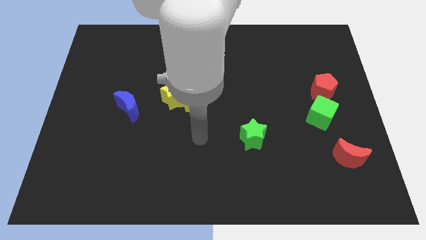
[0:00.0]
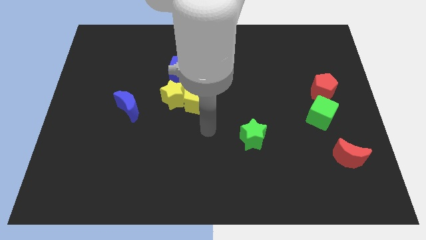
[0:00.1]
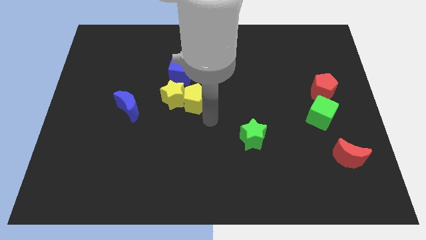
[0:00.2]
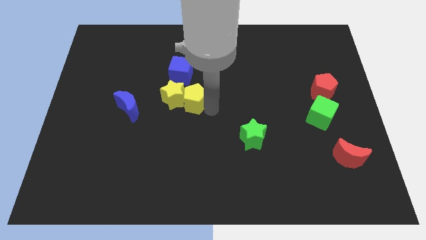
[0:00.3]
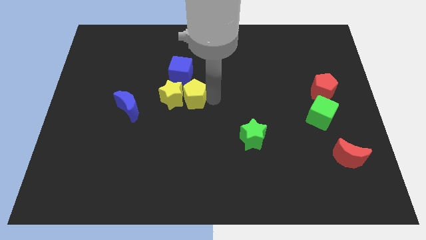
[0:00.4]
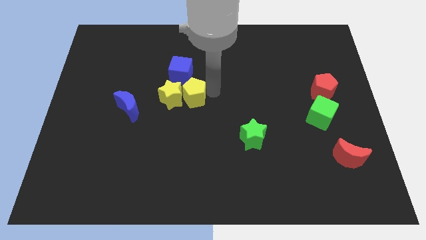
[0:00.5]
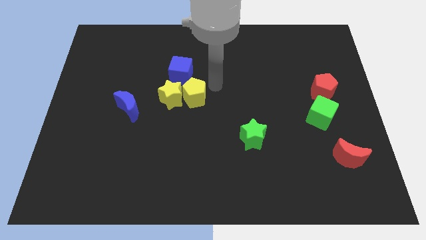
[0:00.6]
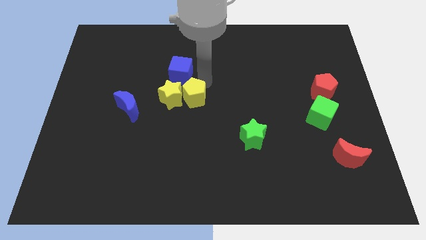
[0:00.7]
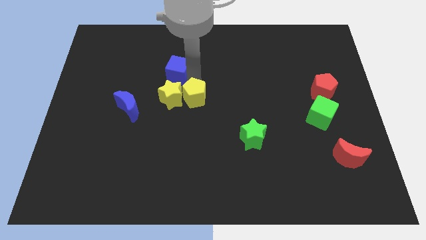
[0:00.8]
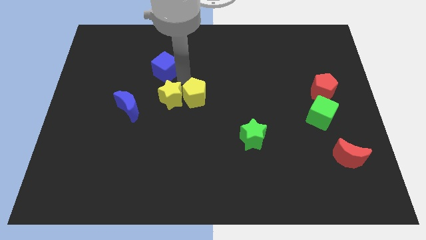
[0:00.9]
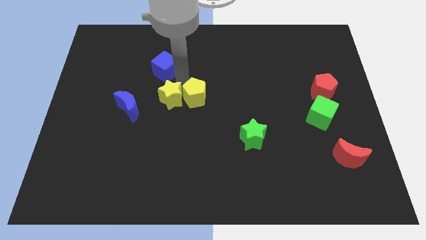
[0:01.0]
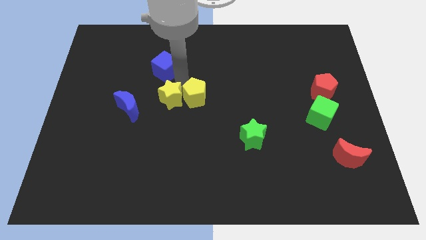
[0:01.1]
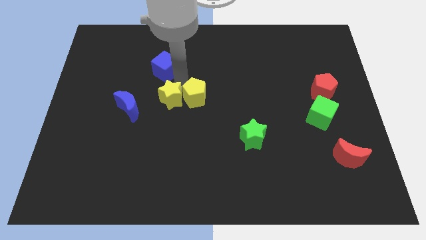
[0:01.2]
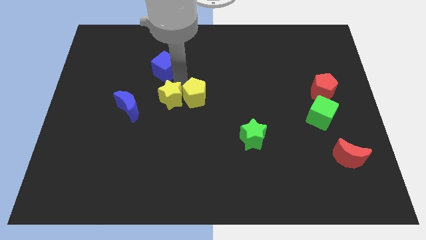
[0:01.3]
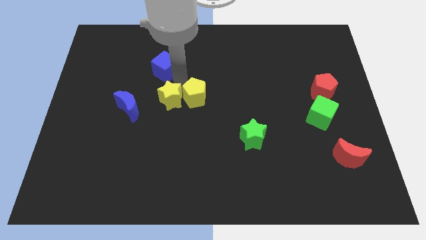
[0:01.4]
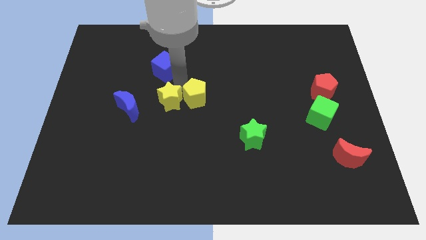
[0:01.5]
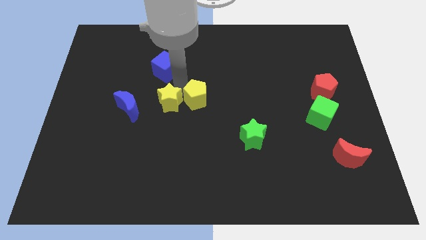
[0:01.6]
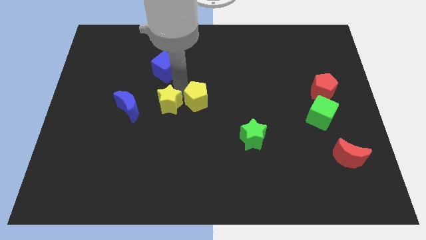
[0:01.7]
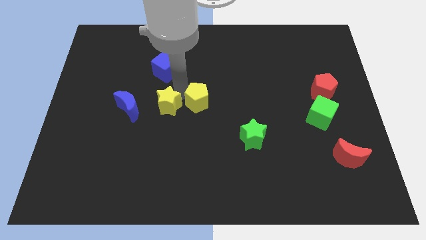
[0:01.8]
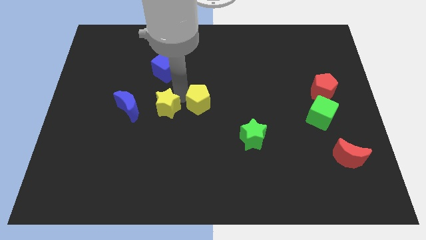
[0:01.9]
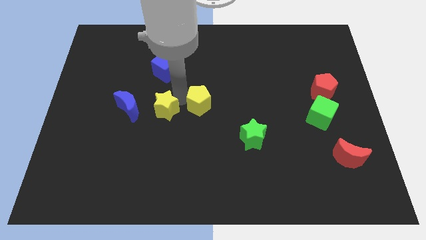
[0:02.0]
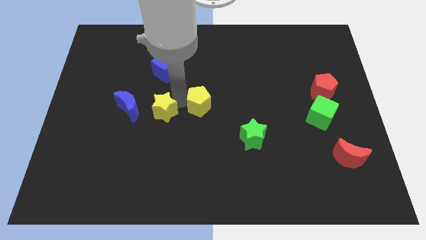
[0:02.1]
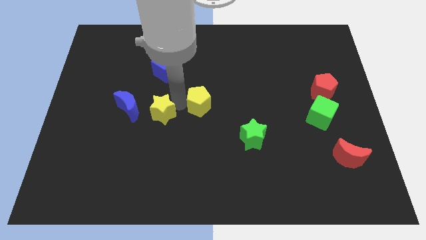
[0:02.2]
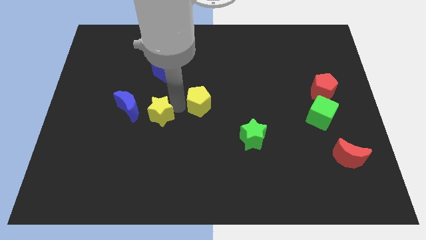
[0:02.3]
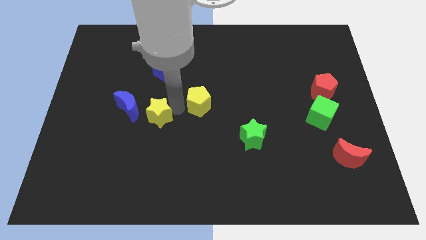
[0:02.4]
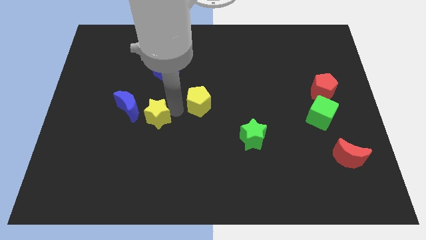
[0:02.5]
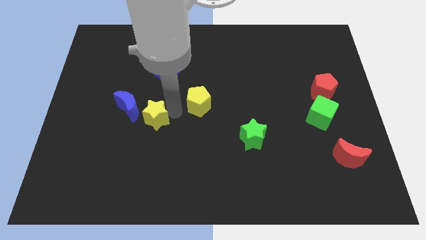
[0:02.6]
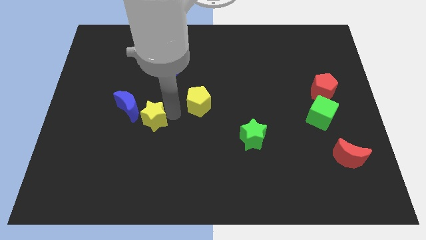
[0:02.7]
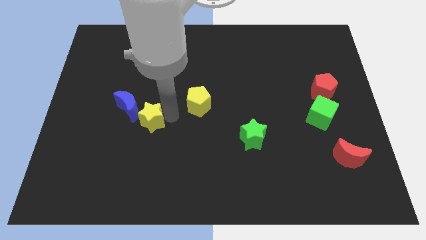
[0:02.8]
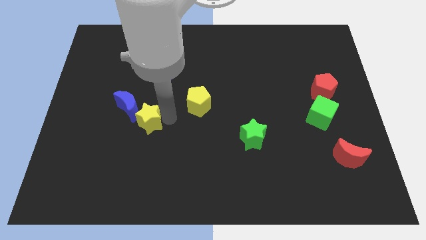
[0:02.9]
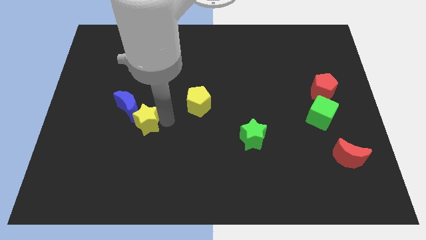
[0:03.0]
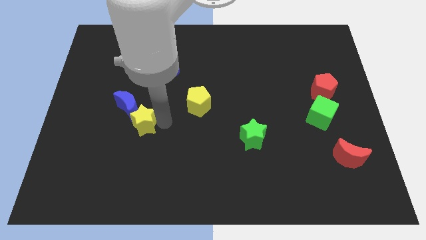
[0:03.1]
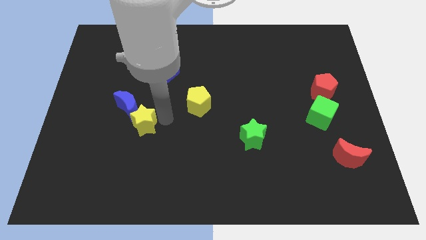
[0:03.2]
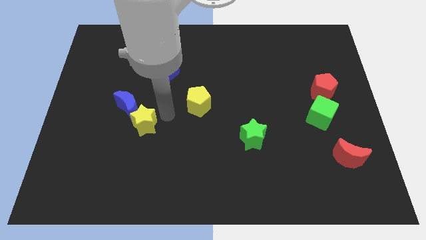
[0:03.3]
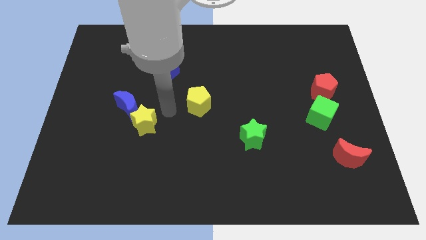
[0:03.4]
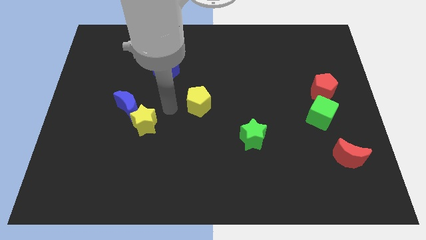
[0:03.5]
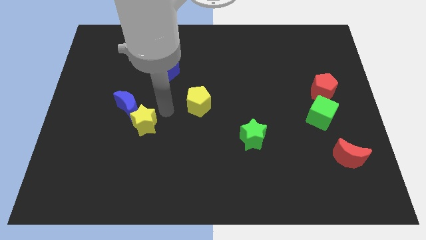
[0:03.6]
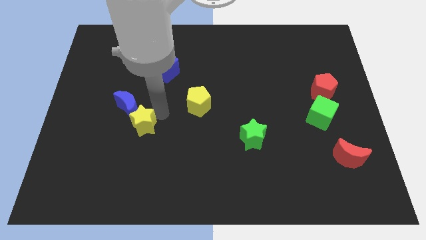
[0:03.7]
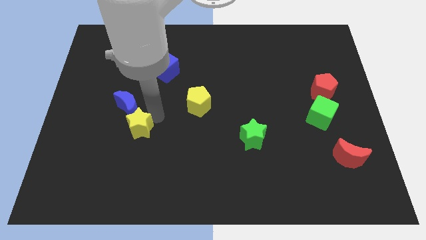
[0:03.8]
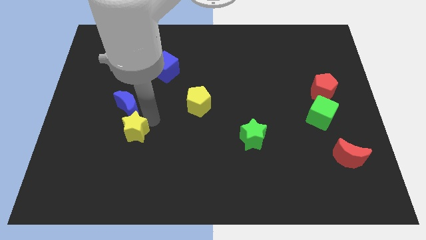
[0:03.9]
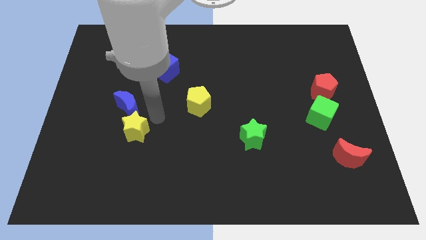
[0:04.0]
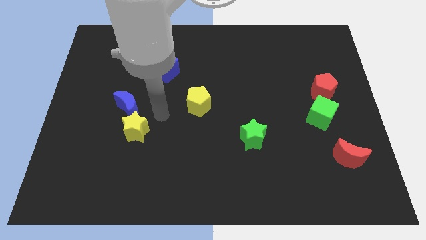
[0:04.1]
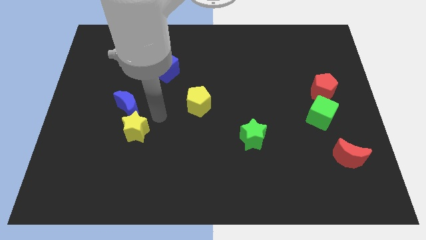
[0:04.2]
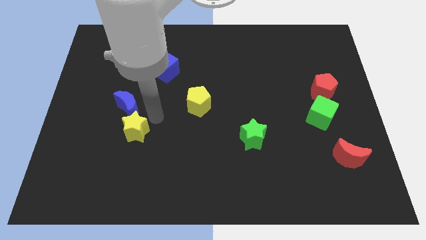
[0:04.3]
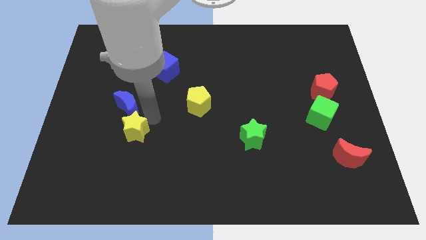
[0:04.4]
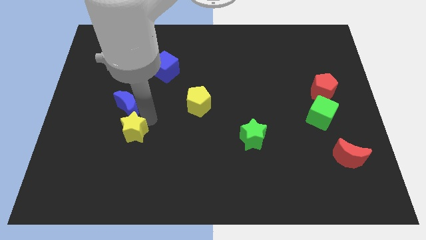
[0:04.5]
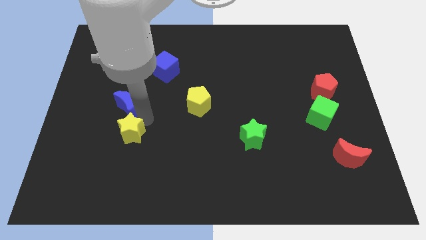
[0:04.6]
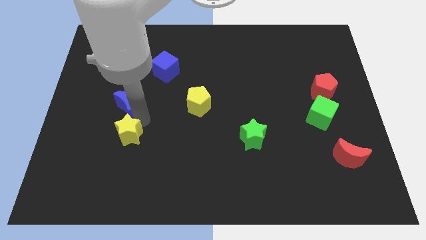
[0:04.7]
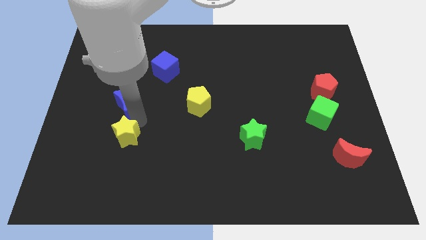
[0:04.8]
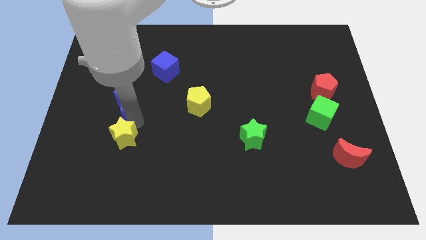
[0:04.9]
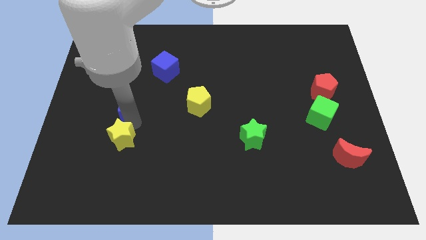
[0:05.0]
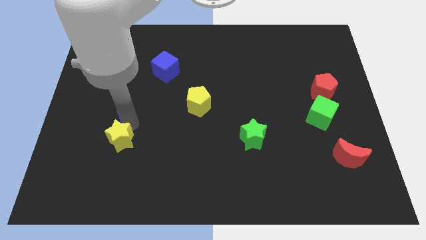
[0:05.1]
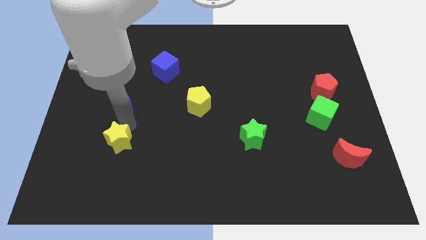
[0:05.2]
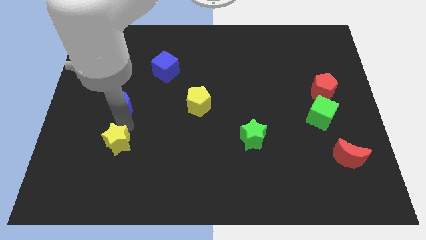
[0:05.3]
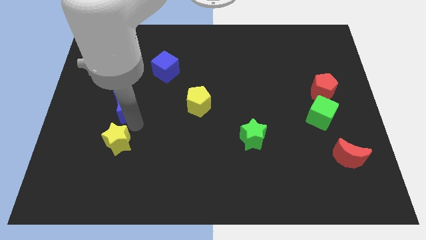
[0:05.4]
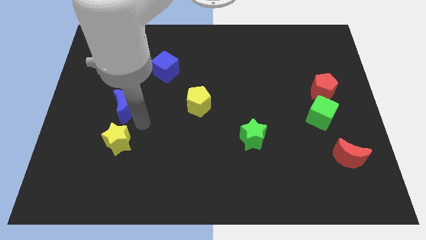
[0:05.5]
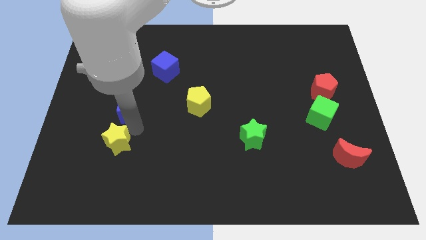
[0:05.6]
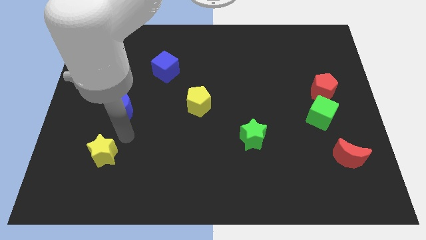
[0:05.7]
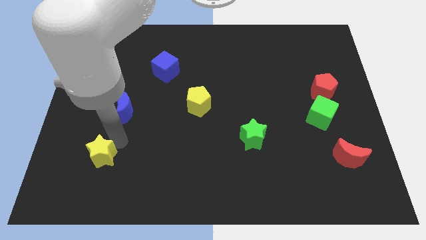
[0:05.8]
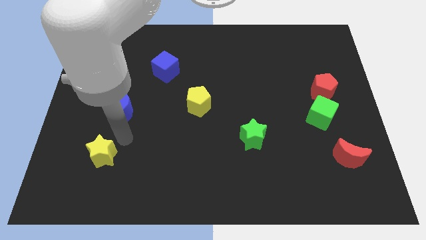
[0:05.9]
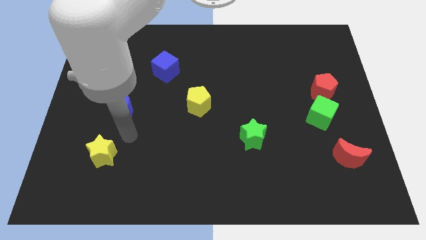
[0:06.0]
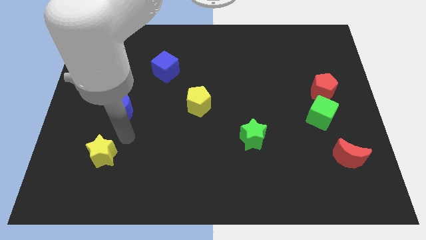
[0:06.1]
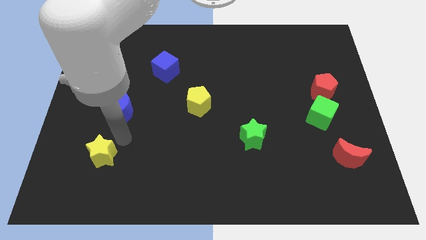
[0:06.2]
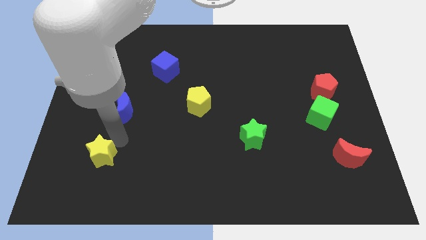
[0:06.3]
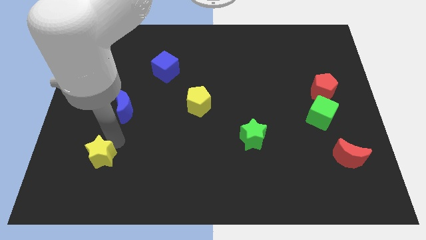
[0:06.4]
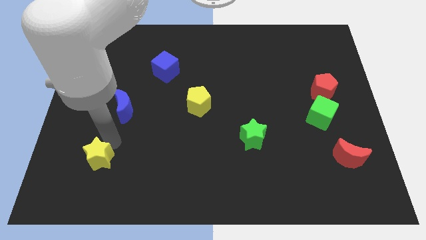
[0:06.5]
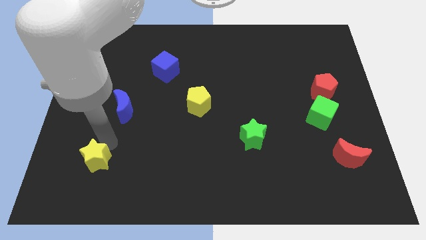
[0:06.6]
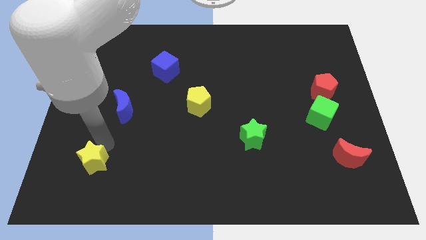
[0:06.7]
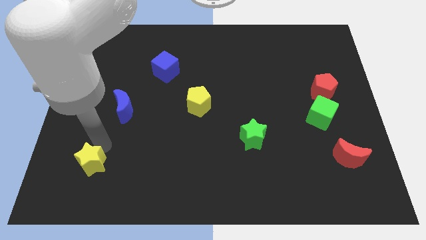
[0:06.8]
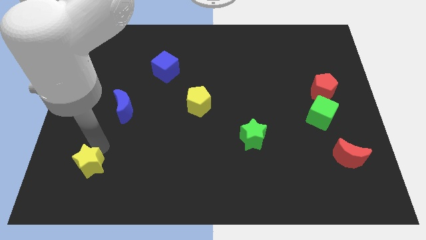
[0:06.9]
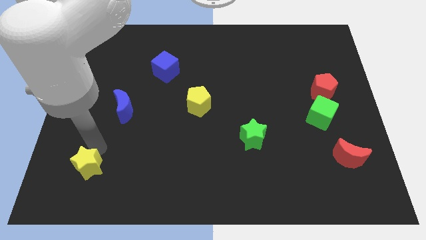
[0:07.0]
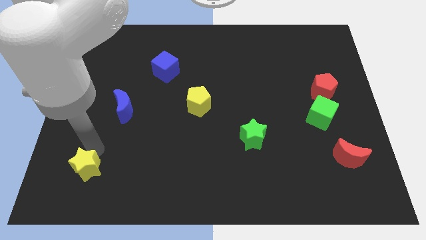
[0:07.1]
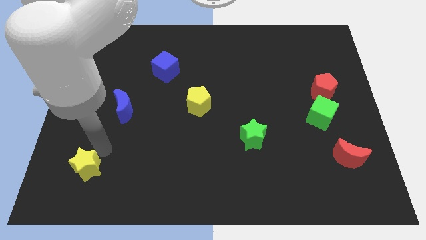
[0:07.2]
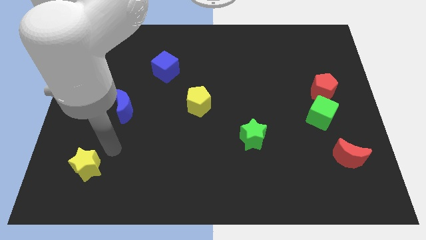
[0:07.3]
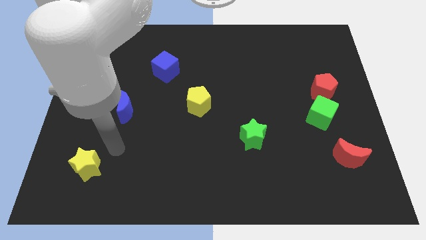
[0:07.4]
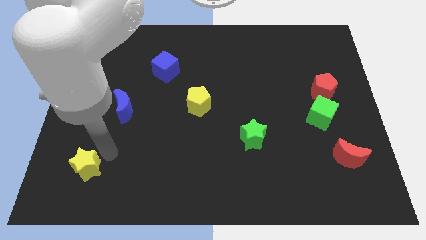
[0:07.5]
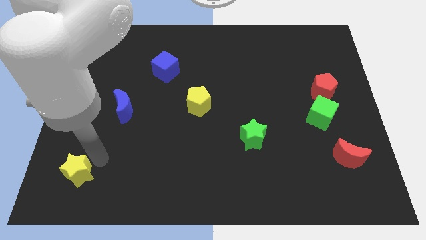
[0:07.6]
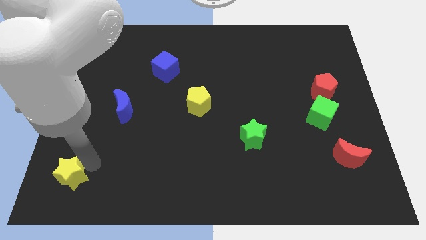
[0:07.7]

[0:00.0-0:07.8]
push the yellow star to the bottom left

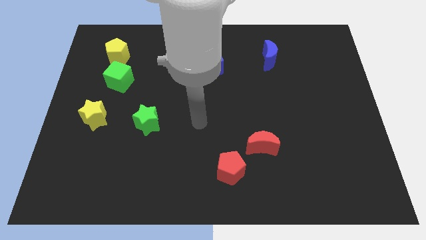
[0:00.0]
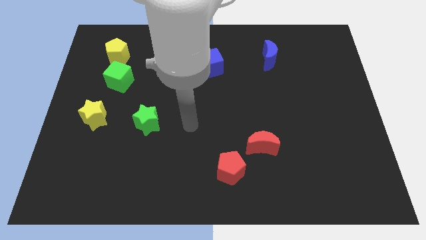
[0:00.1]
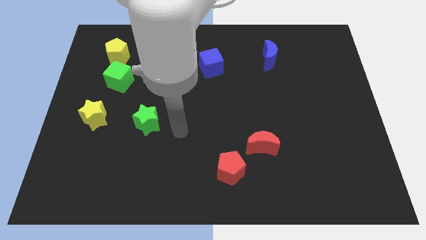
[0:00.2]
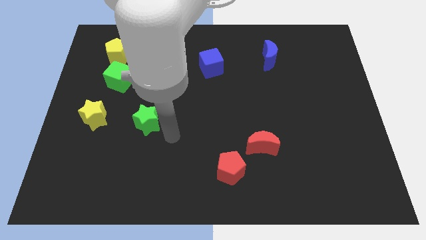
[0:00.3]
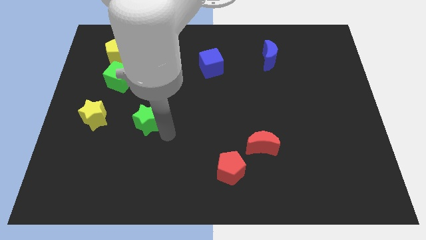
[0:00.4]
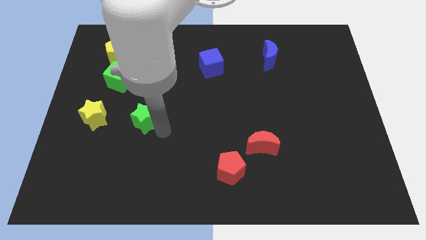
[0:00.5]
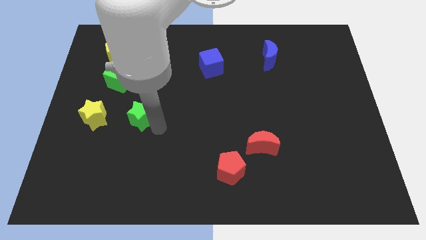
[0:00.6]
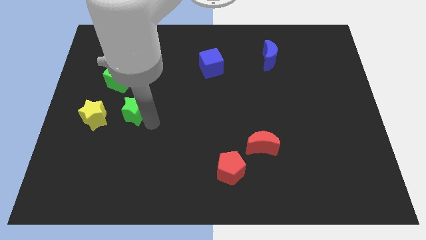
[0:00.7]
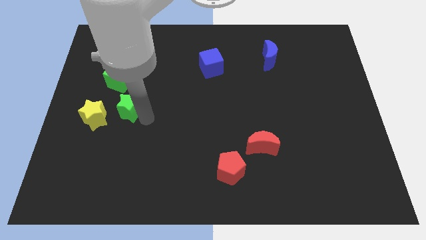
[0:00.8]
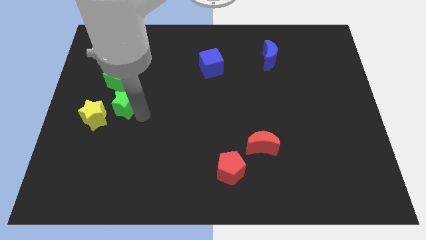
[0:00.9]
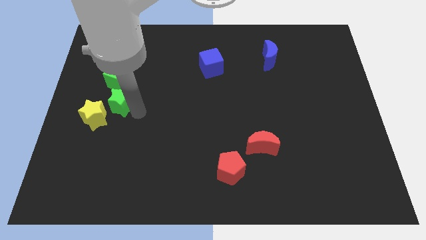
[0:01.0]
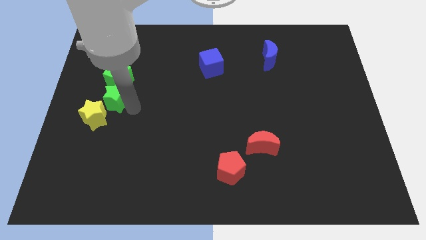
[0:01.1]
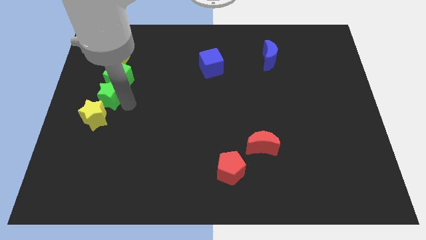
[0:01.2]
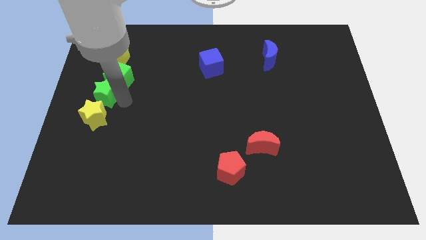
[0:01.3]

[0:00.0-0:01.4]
push the green star to the left side
